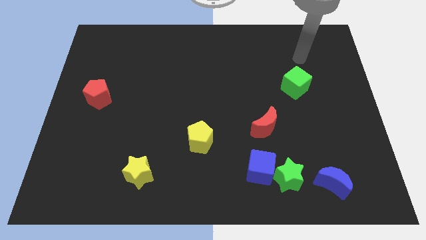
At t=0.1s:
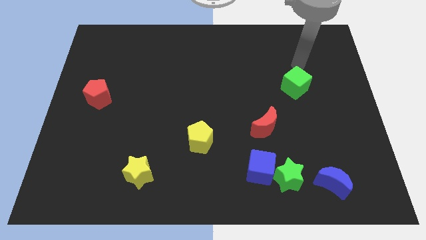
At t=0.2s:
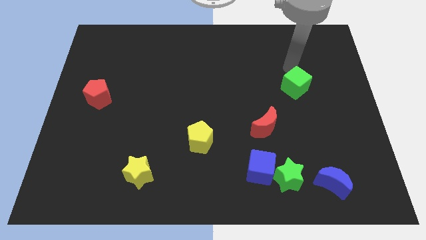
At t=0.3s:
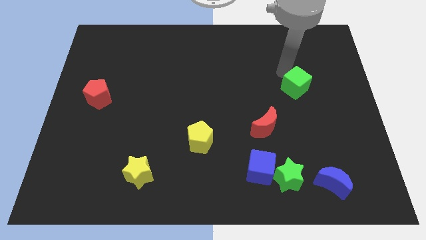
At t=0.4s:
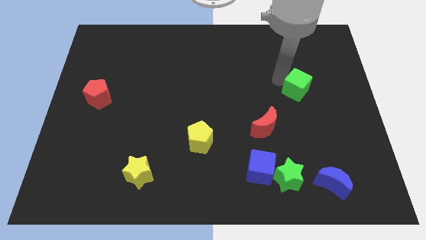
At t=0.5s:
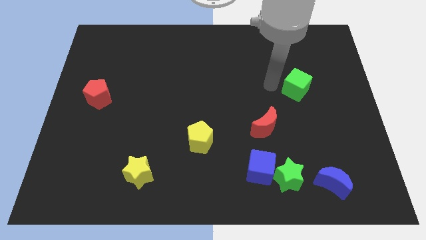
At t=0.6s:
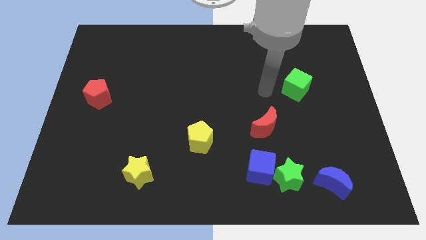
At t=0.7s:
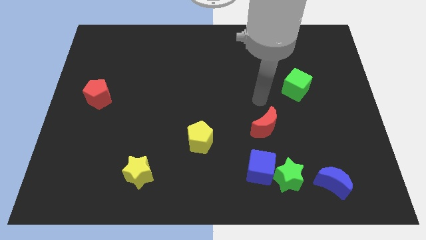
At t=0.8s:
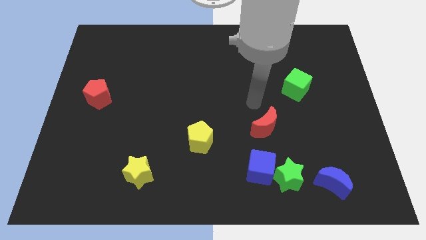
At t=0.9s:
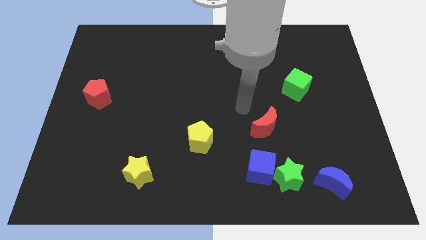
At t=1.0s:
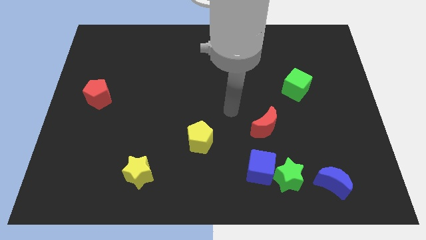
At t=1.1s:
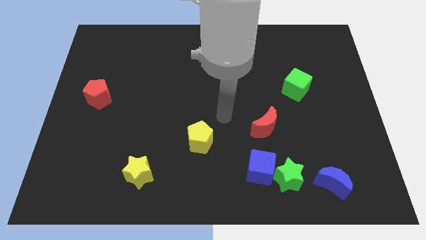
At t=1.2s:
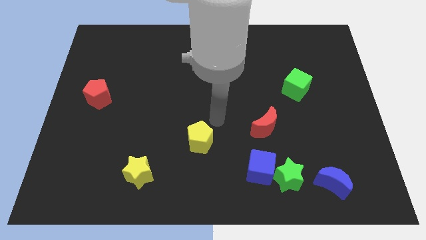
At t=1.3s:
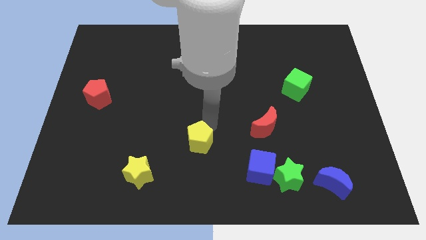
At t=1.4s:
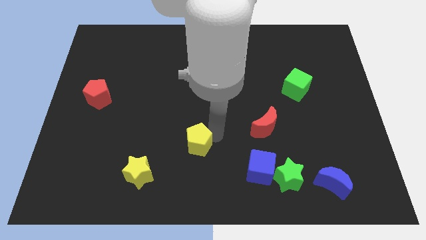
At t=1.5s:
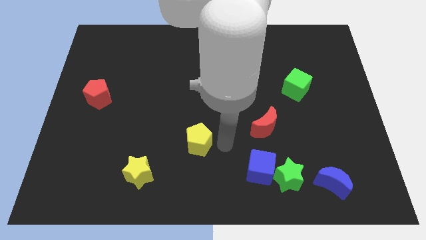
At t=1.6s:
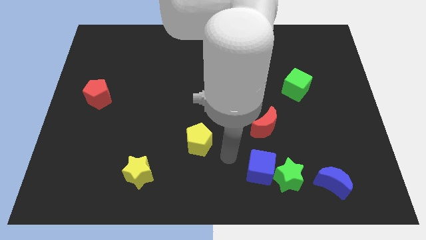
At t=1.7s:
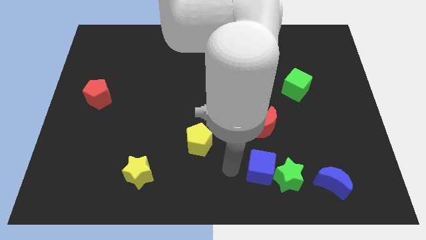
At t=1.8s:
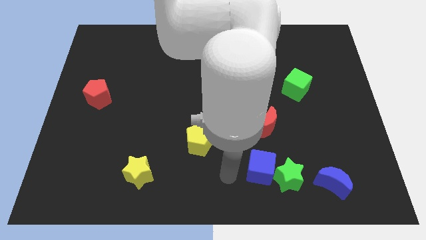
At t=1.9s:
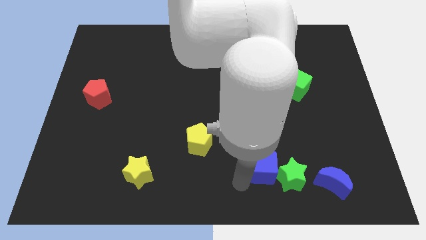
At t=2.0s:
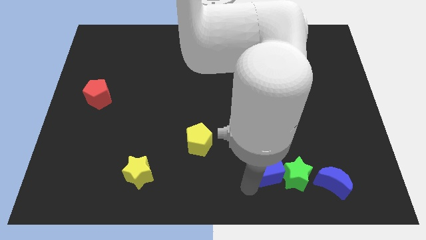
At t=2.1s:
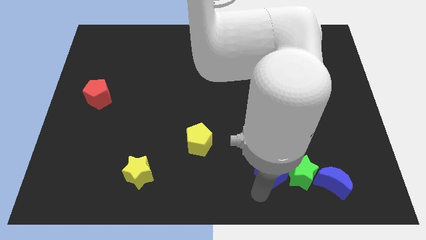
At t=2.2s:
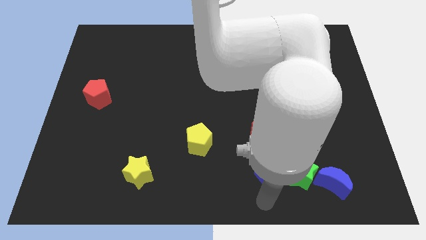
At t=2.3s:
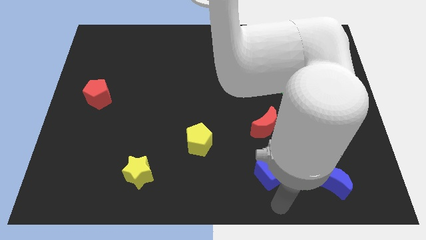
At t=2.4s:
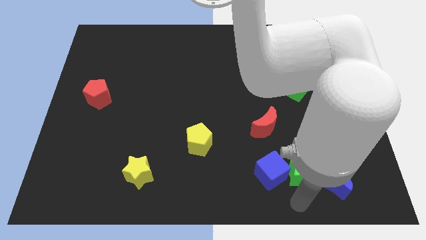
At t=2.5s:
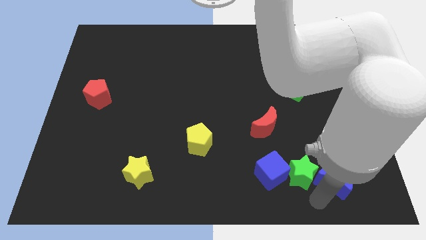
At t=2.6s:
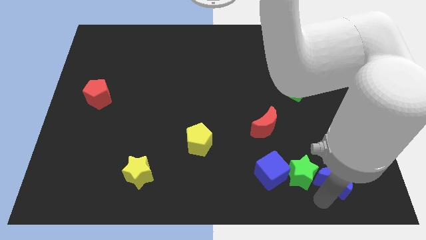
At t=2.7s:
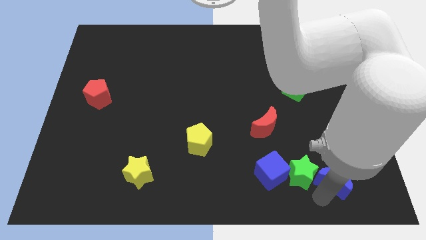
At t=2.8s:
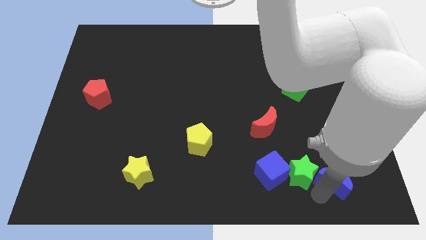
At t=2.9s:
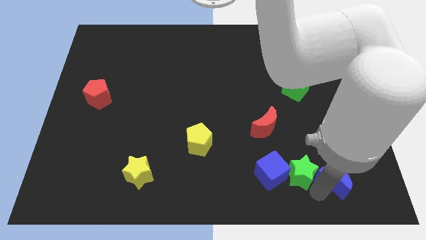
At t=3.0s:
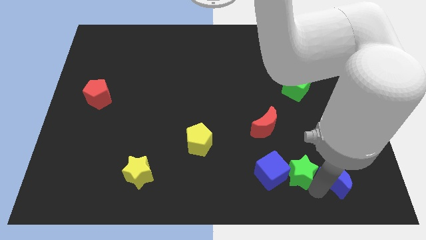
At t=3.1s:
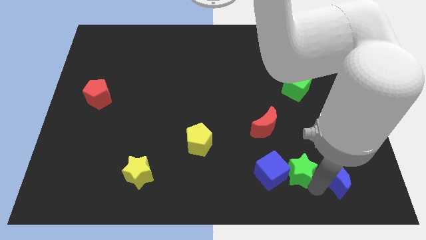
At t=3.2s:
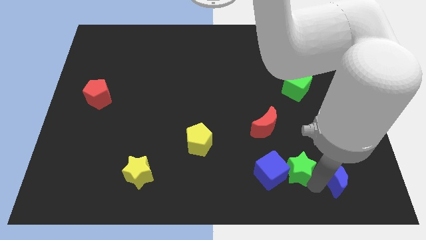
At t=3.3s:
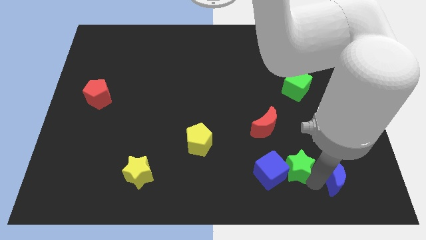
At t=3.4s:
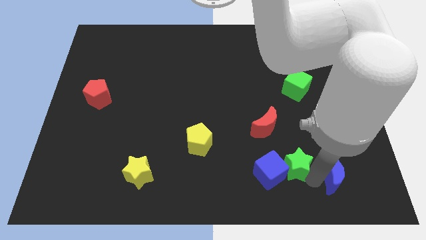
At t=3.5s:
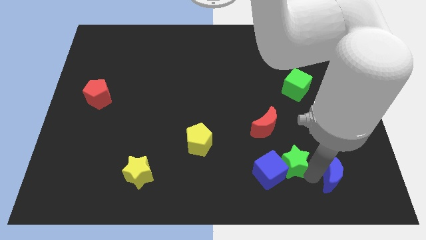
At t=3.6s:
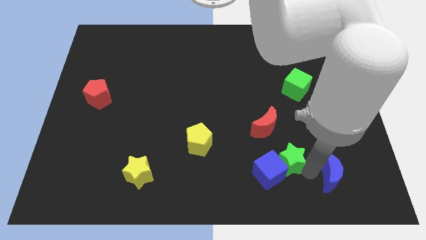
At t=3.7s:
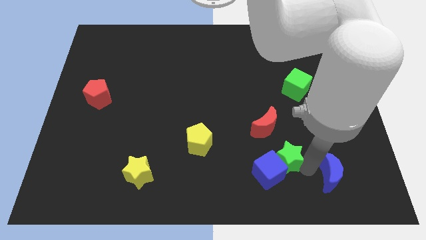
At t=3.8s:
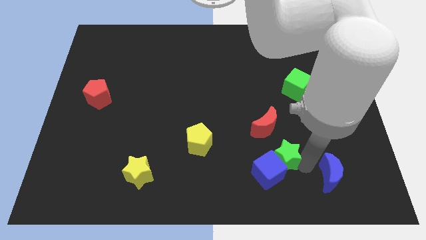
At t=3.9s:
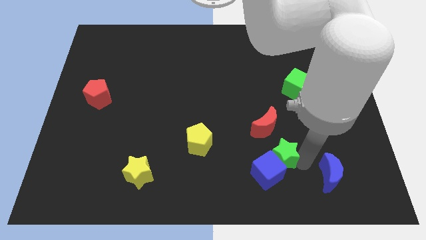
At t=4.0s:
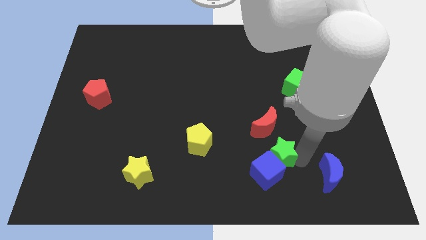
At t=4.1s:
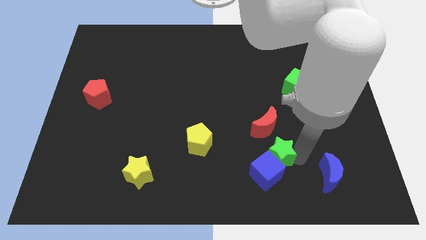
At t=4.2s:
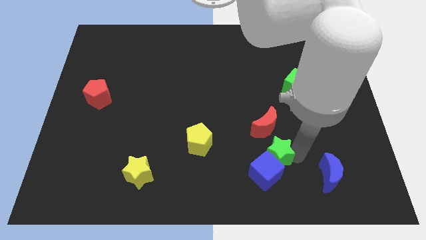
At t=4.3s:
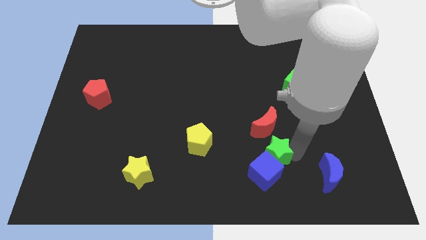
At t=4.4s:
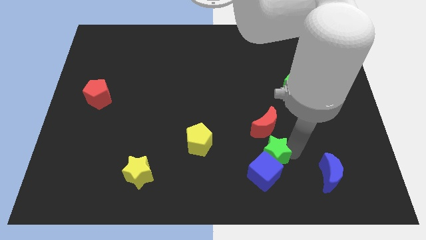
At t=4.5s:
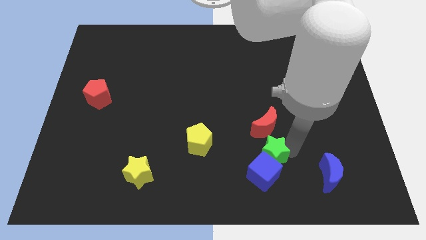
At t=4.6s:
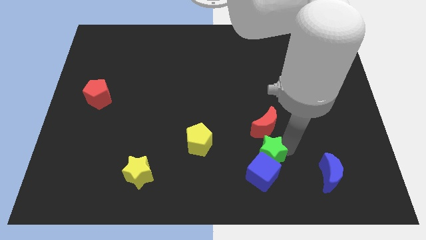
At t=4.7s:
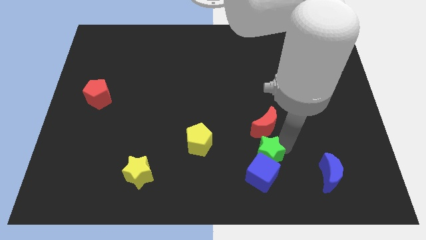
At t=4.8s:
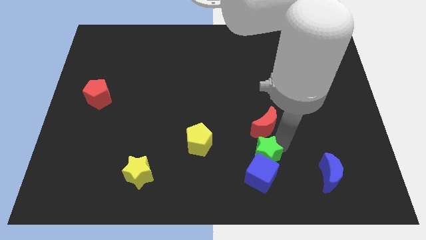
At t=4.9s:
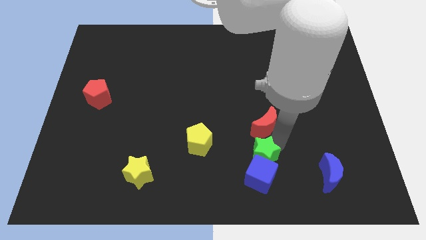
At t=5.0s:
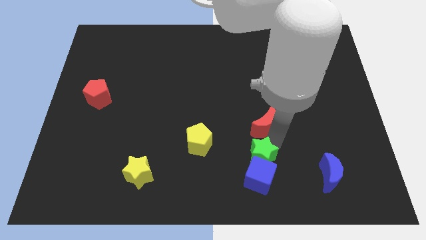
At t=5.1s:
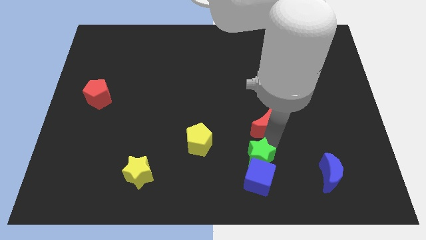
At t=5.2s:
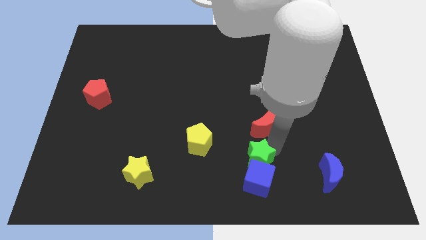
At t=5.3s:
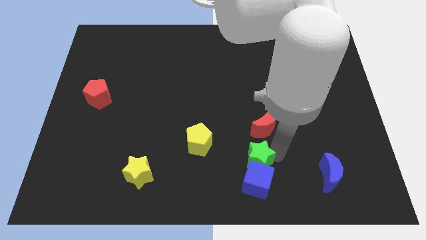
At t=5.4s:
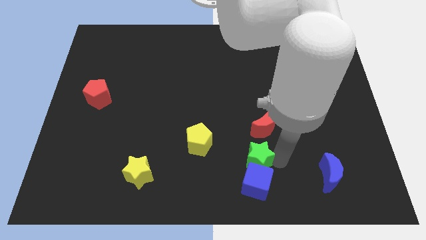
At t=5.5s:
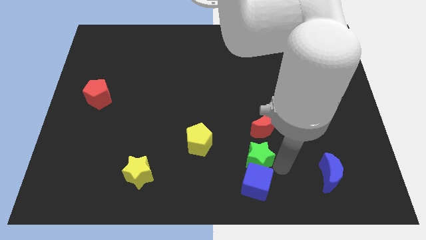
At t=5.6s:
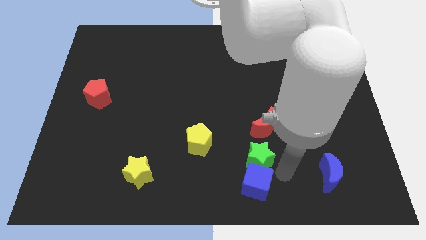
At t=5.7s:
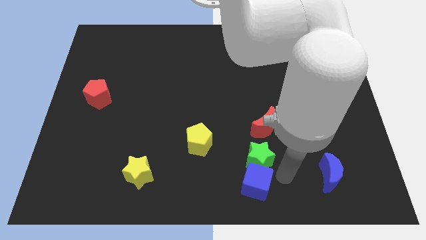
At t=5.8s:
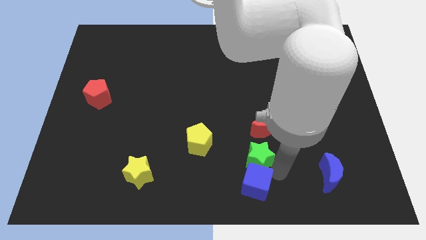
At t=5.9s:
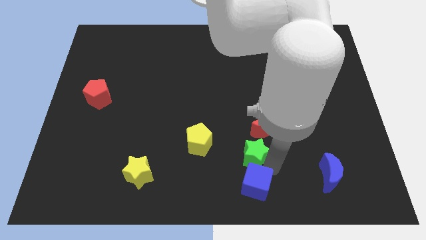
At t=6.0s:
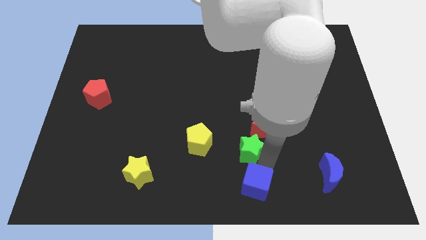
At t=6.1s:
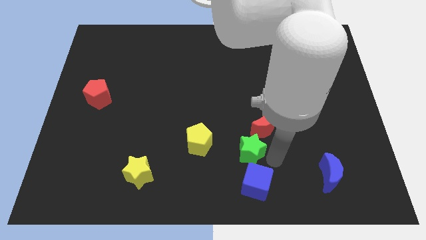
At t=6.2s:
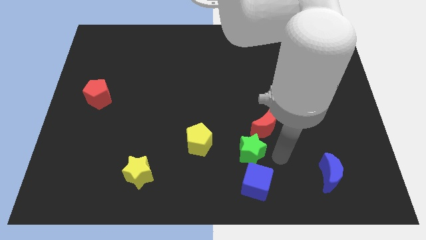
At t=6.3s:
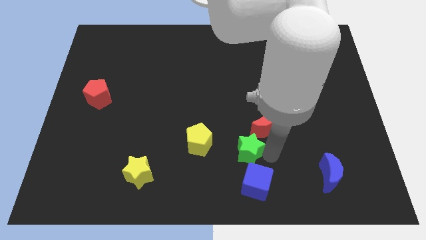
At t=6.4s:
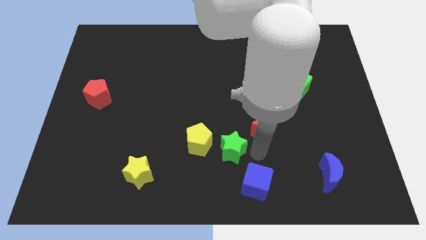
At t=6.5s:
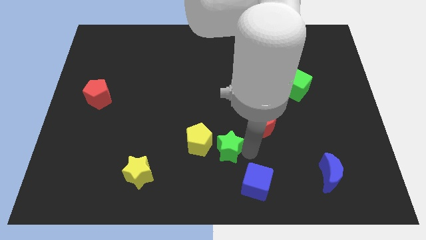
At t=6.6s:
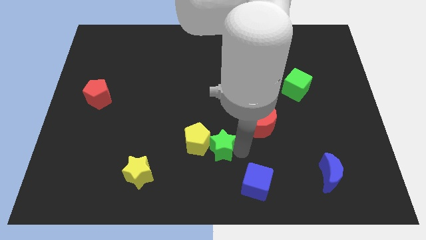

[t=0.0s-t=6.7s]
slide the green star close to the yellow pentagon
